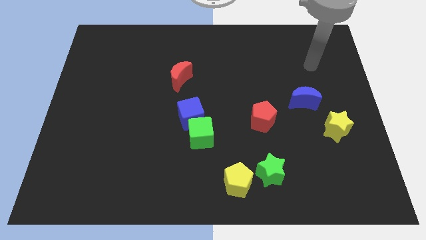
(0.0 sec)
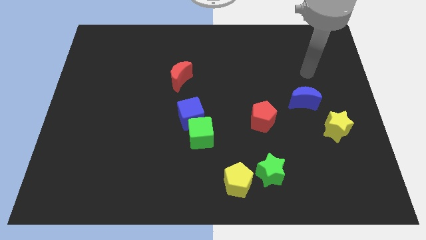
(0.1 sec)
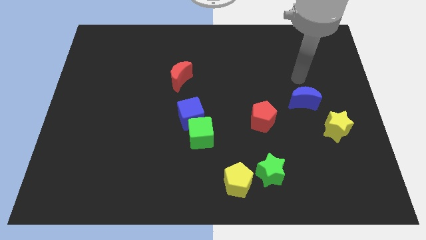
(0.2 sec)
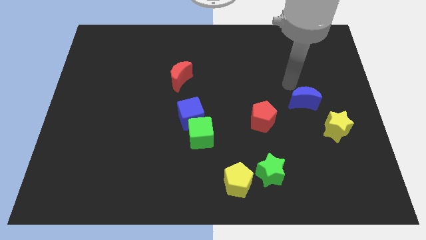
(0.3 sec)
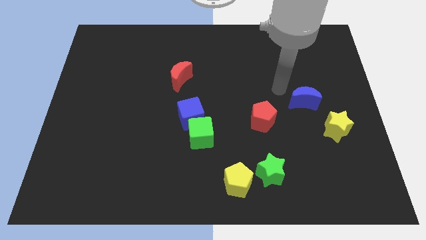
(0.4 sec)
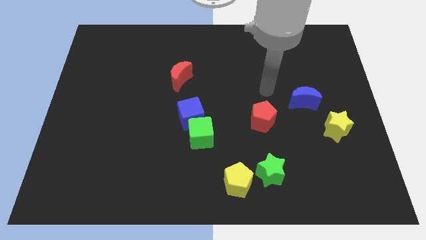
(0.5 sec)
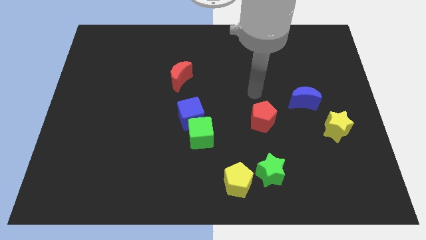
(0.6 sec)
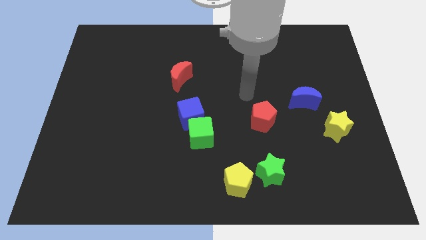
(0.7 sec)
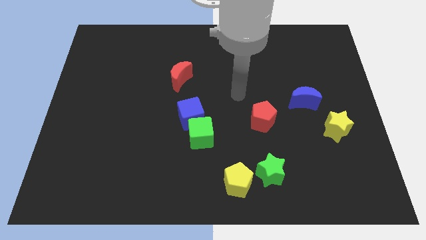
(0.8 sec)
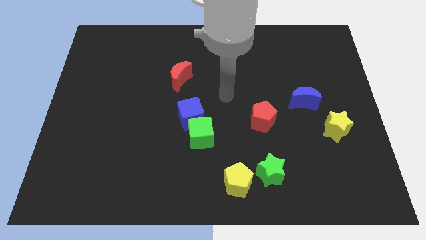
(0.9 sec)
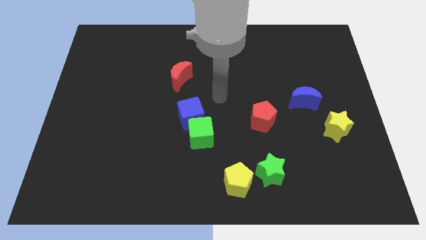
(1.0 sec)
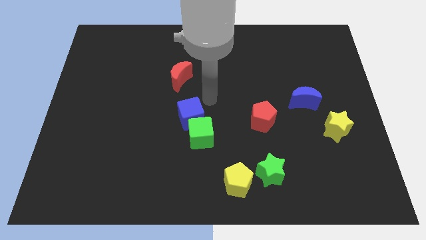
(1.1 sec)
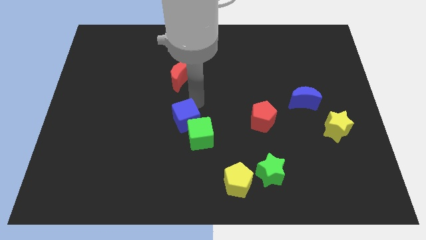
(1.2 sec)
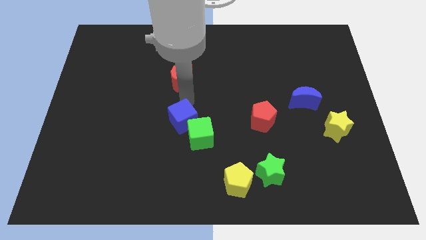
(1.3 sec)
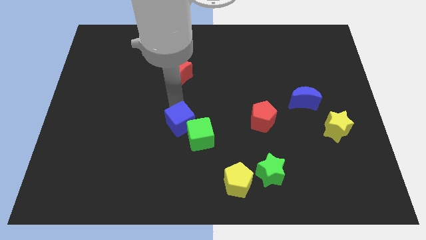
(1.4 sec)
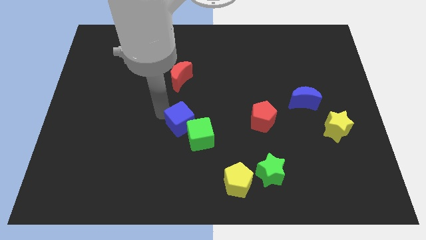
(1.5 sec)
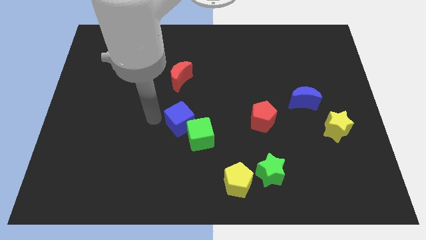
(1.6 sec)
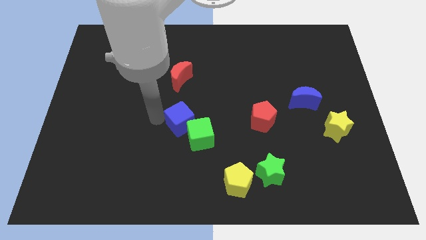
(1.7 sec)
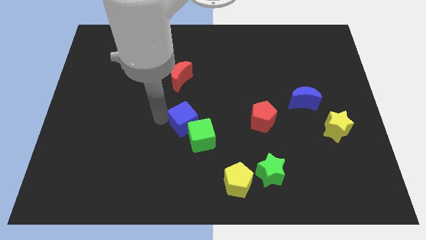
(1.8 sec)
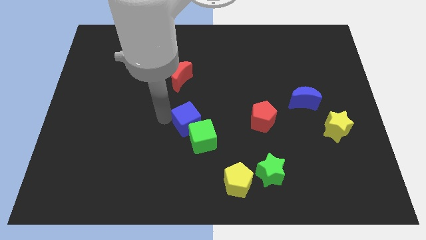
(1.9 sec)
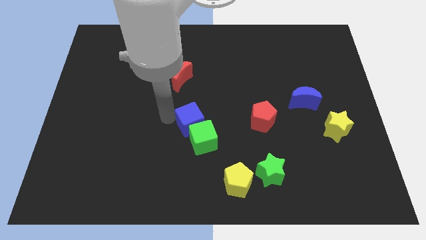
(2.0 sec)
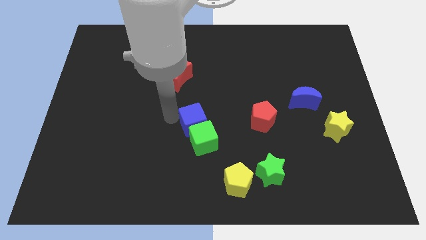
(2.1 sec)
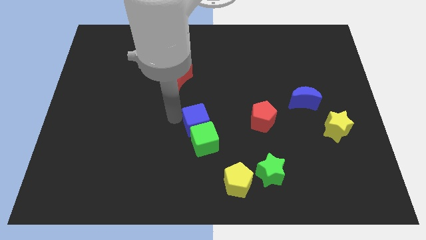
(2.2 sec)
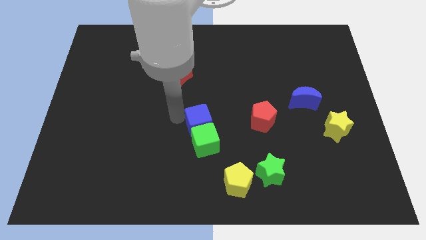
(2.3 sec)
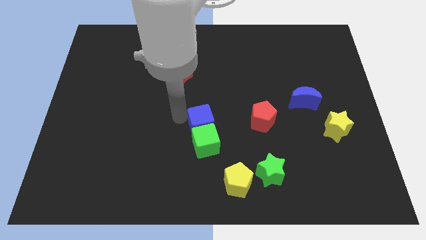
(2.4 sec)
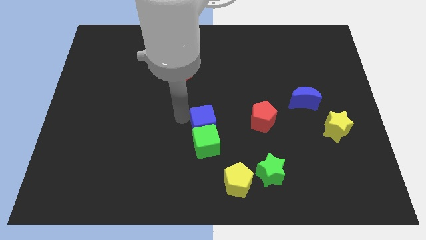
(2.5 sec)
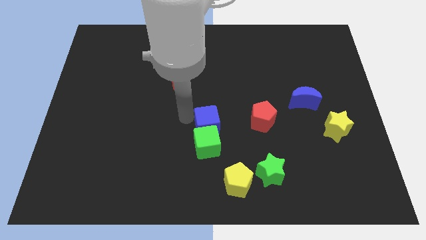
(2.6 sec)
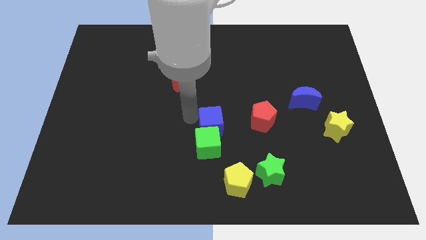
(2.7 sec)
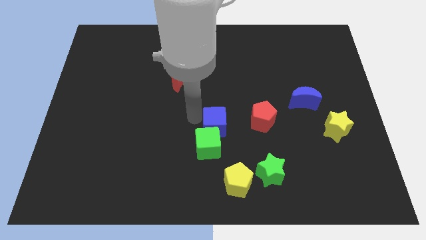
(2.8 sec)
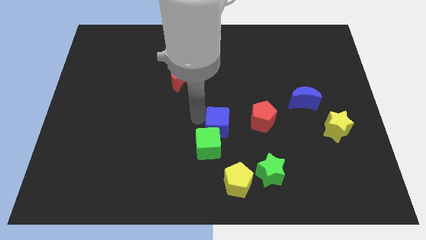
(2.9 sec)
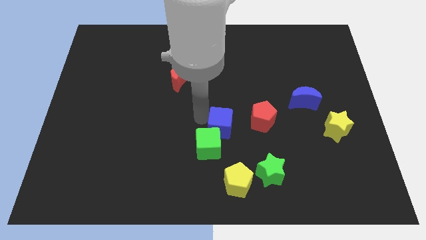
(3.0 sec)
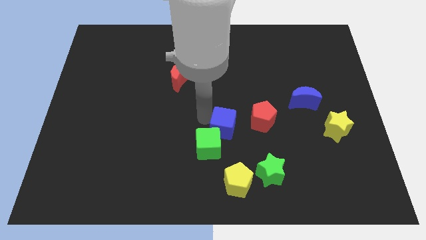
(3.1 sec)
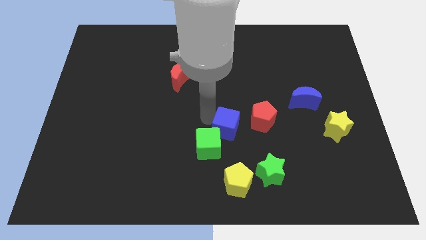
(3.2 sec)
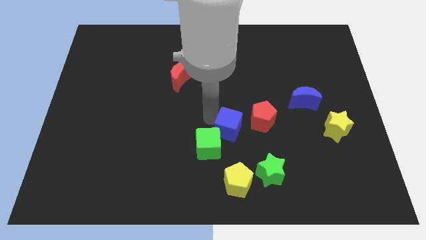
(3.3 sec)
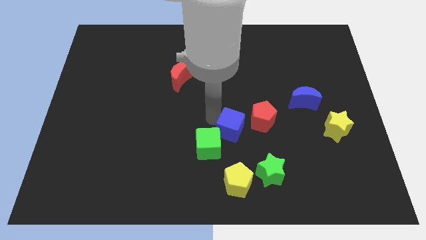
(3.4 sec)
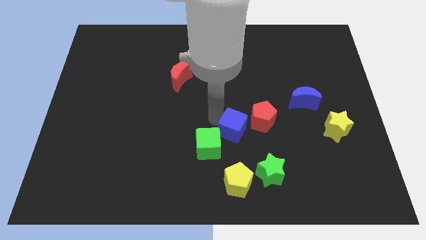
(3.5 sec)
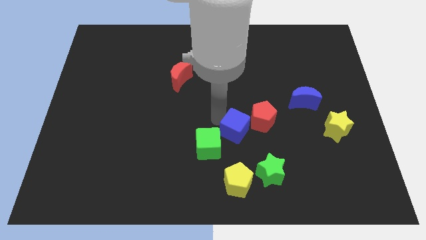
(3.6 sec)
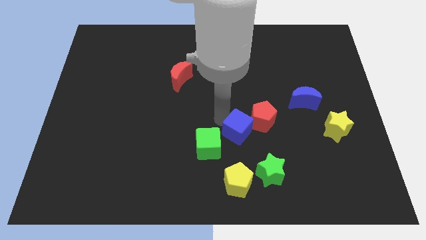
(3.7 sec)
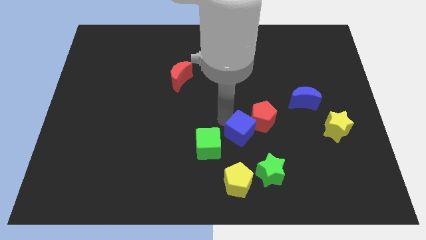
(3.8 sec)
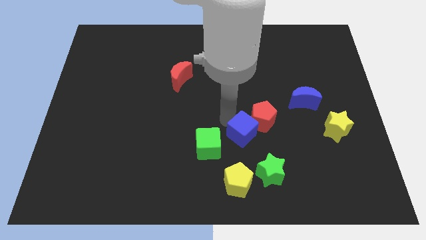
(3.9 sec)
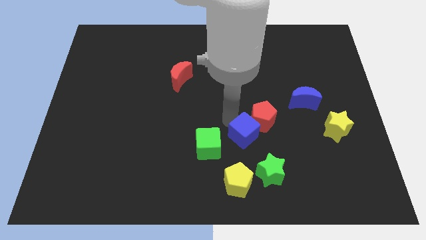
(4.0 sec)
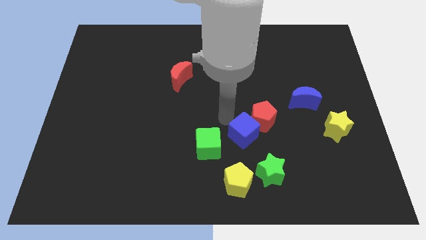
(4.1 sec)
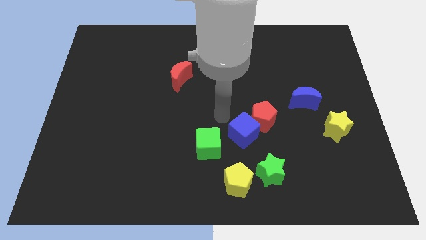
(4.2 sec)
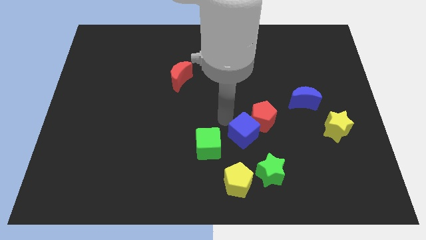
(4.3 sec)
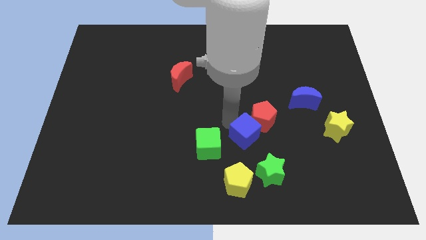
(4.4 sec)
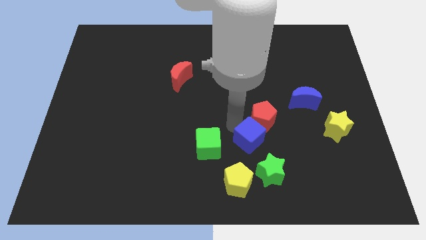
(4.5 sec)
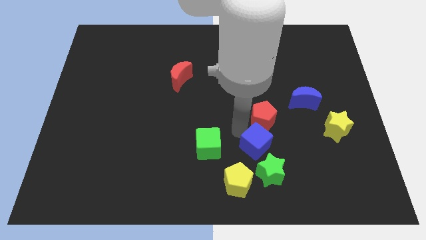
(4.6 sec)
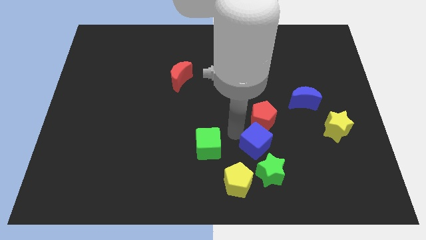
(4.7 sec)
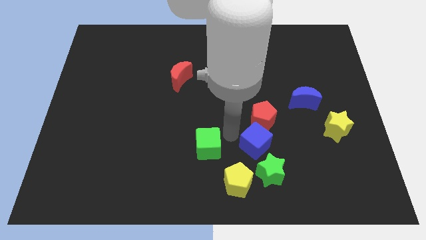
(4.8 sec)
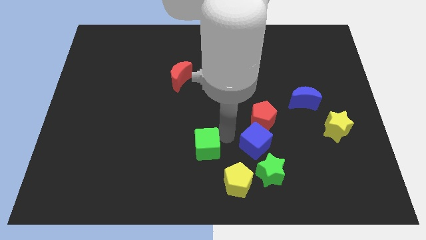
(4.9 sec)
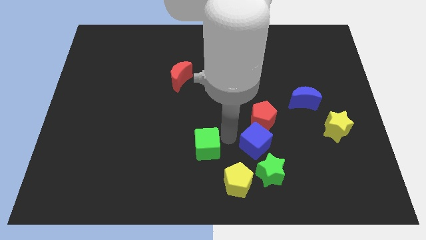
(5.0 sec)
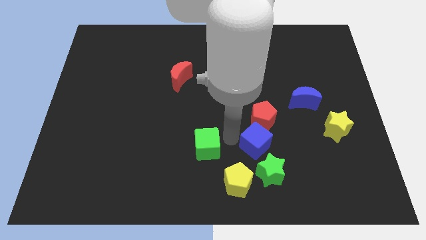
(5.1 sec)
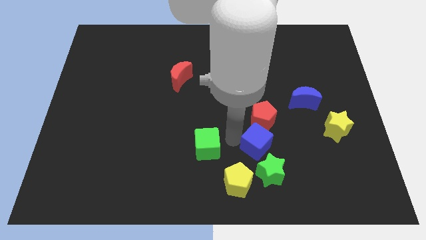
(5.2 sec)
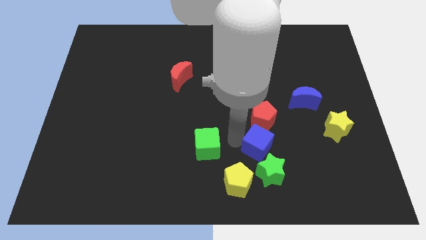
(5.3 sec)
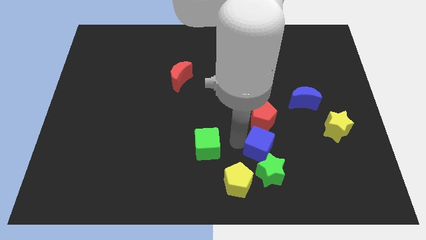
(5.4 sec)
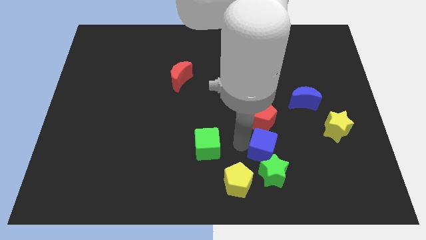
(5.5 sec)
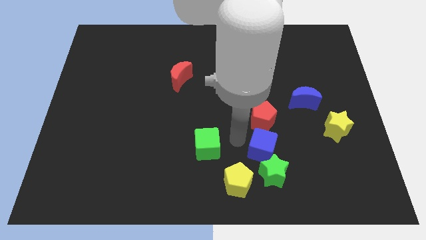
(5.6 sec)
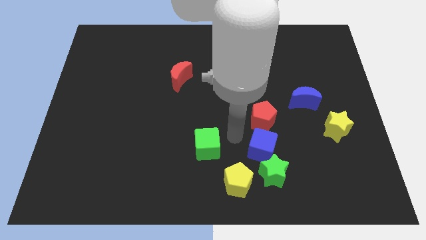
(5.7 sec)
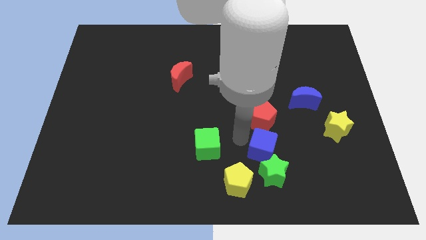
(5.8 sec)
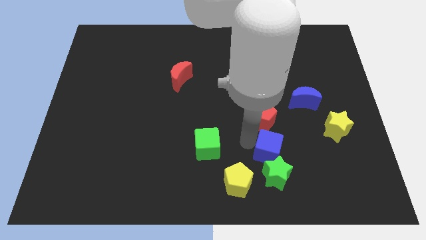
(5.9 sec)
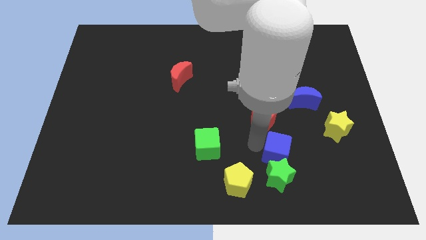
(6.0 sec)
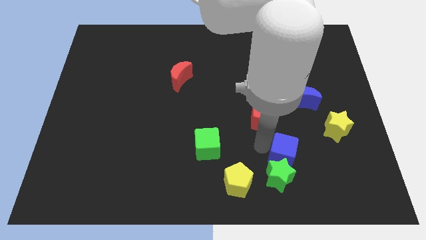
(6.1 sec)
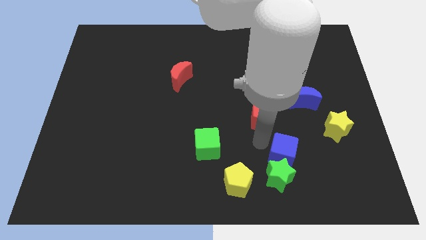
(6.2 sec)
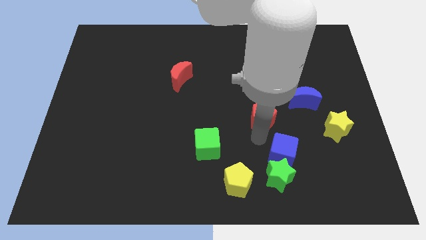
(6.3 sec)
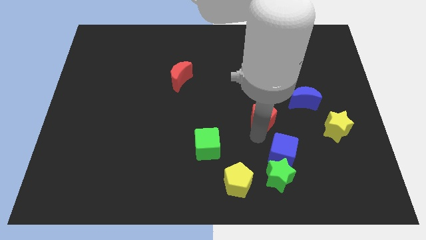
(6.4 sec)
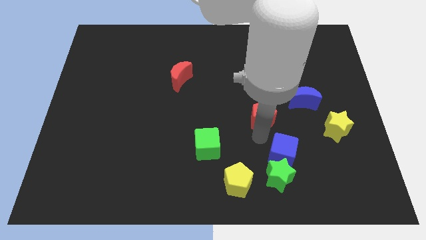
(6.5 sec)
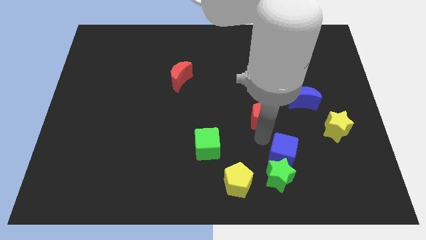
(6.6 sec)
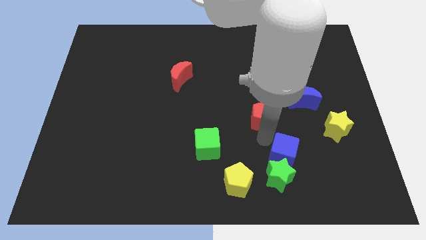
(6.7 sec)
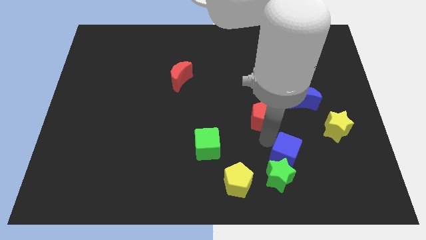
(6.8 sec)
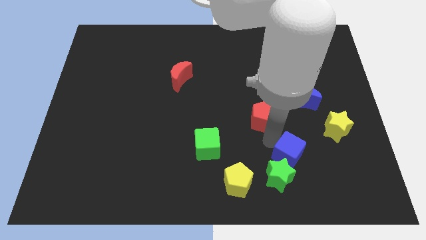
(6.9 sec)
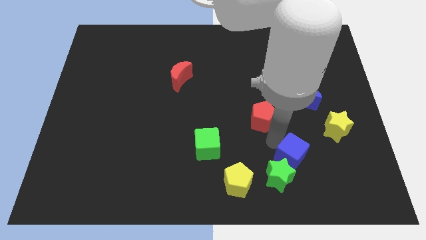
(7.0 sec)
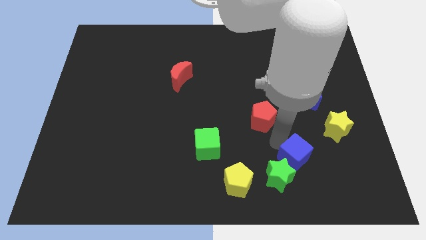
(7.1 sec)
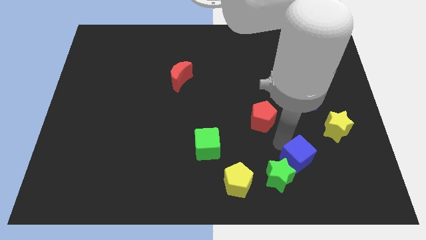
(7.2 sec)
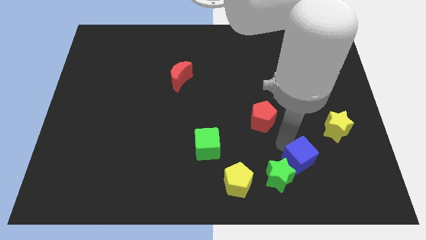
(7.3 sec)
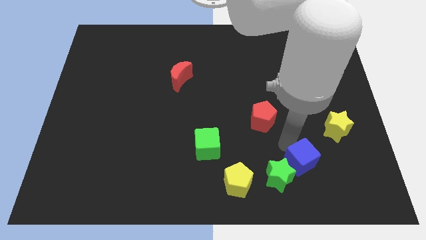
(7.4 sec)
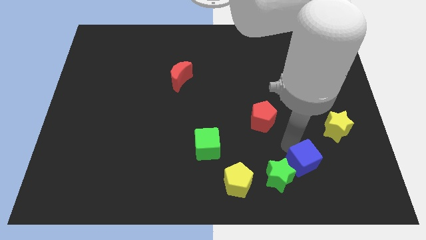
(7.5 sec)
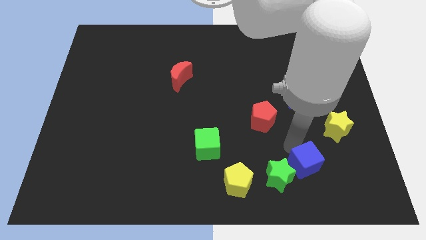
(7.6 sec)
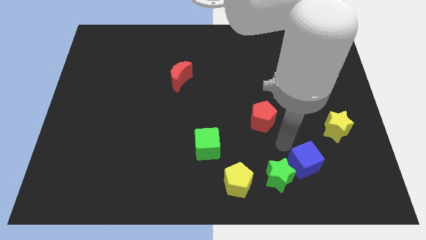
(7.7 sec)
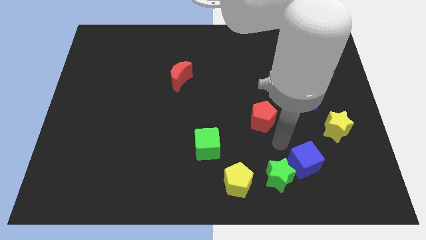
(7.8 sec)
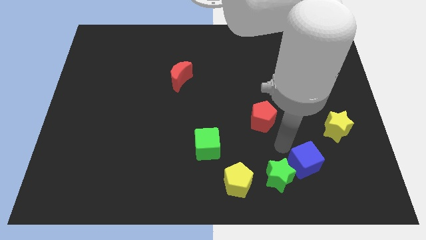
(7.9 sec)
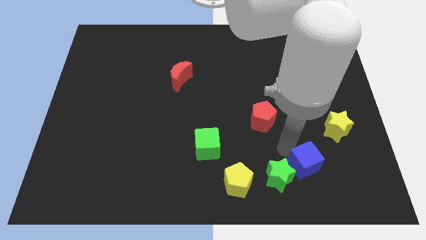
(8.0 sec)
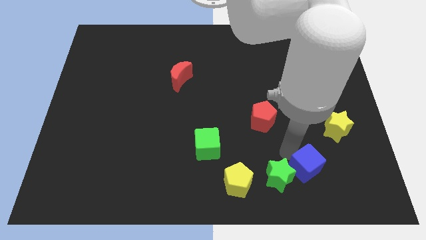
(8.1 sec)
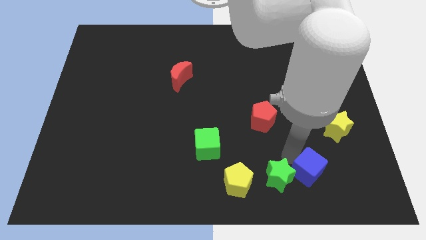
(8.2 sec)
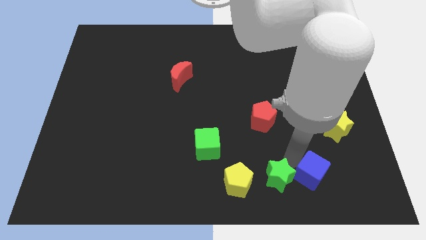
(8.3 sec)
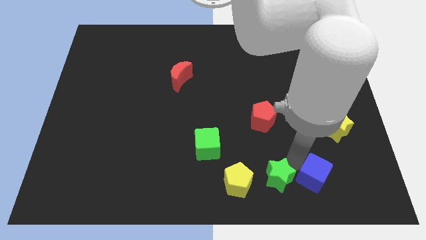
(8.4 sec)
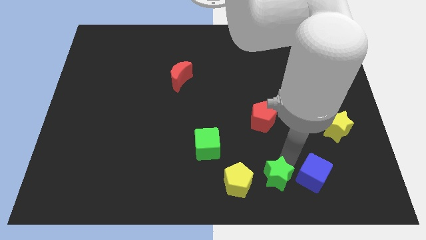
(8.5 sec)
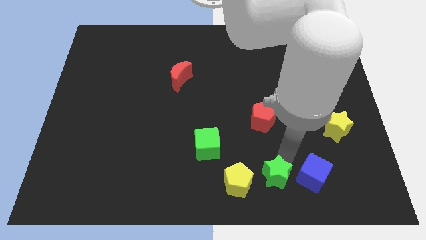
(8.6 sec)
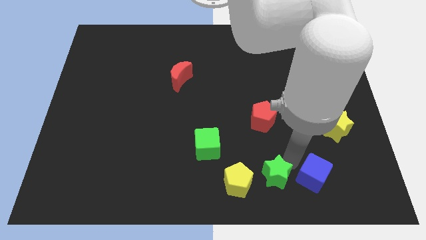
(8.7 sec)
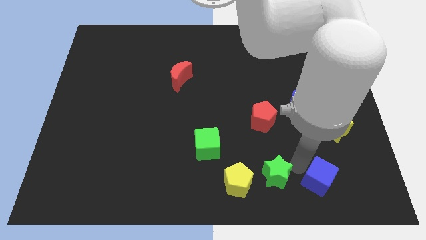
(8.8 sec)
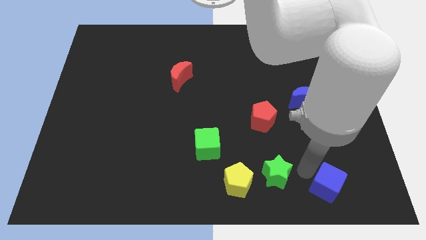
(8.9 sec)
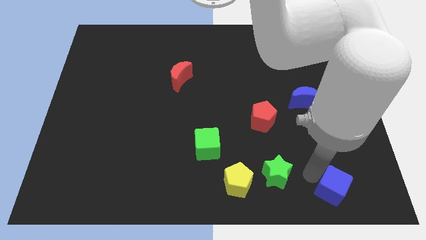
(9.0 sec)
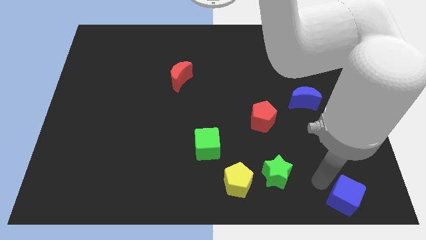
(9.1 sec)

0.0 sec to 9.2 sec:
slide the blue cube to the bottom right
